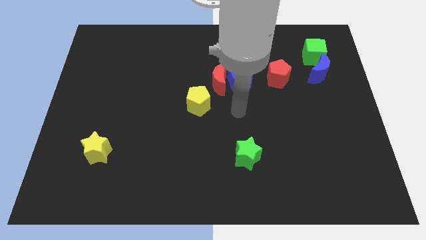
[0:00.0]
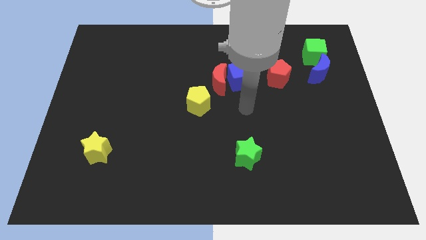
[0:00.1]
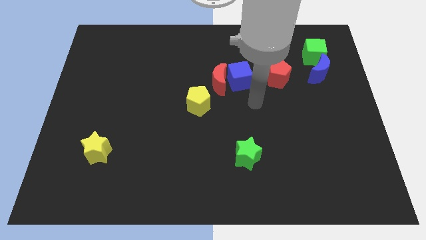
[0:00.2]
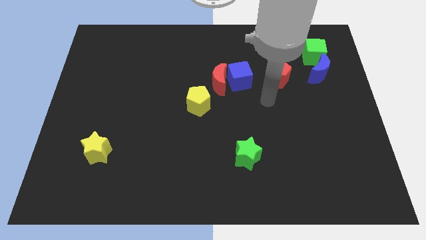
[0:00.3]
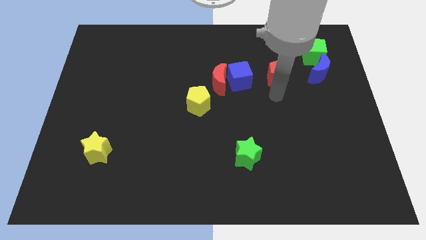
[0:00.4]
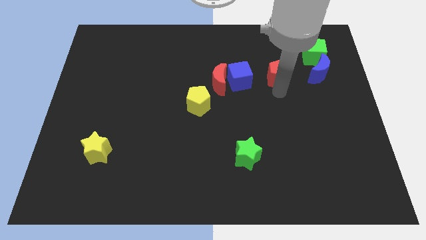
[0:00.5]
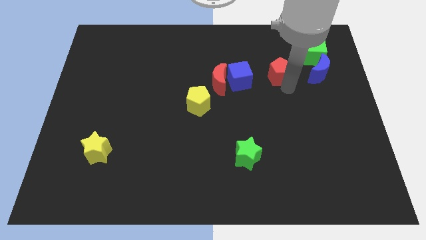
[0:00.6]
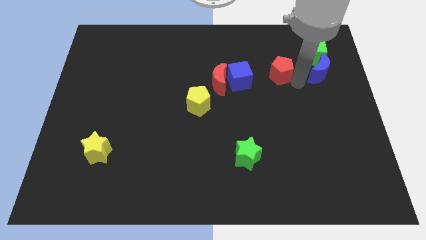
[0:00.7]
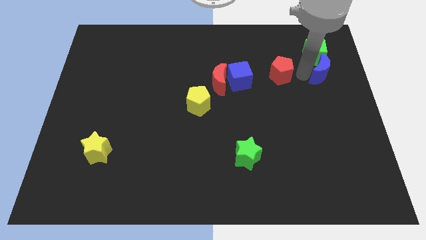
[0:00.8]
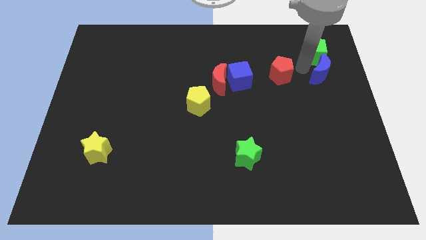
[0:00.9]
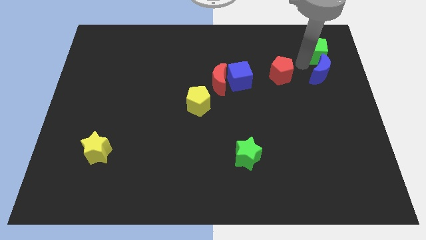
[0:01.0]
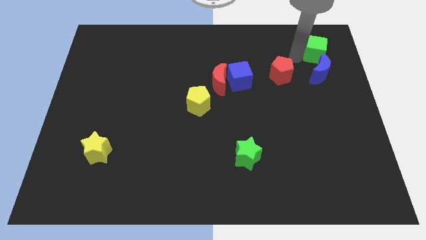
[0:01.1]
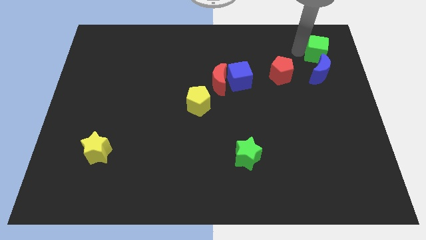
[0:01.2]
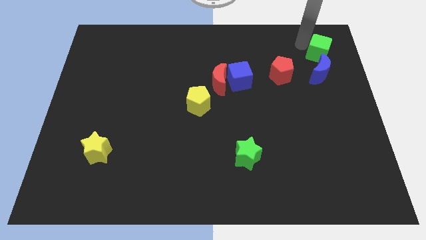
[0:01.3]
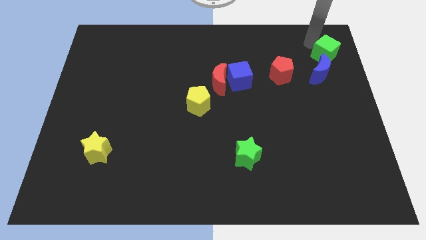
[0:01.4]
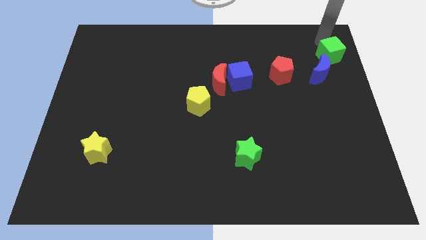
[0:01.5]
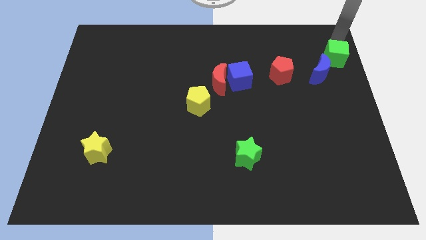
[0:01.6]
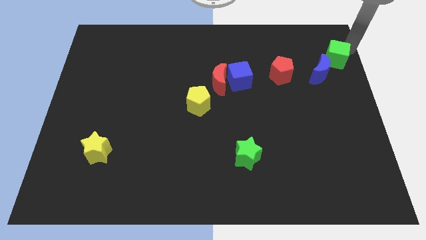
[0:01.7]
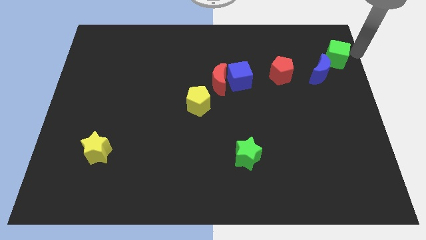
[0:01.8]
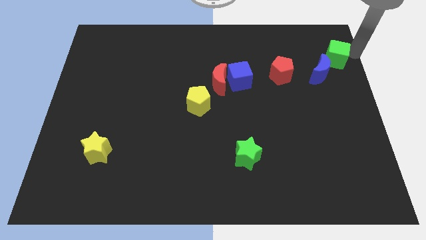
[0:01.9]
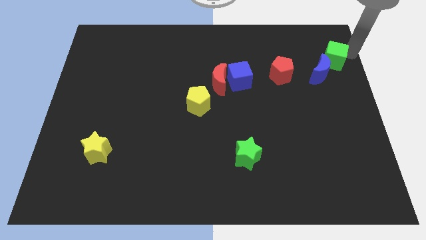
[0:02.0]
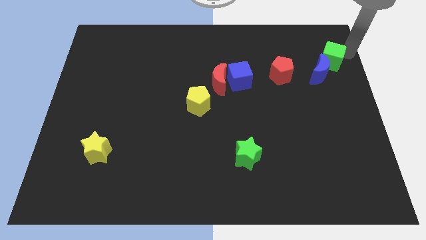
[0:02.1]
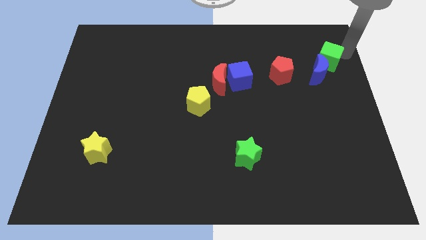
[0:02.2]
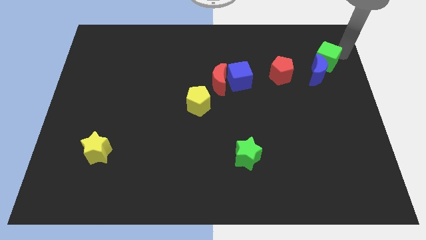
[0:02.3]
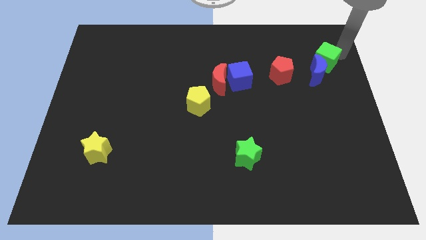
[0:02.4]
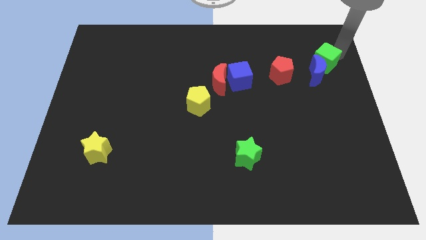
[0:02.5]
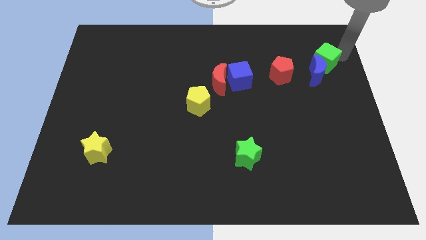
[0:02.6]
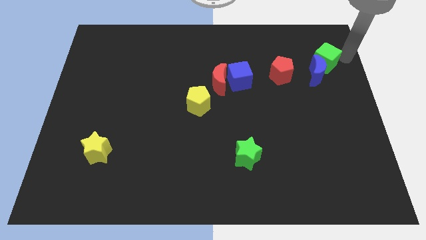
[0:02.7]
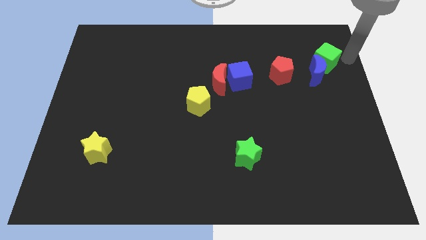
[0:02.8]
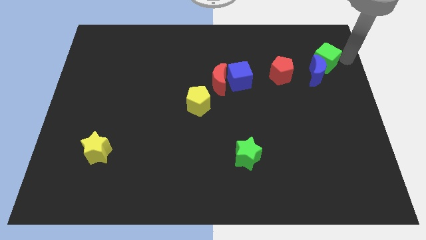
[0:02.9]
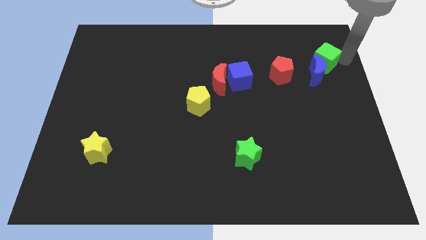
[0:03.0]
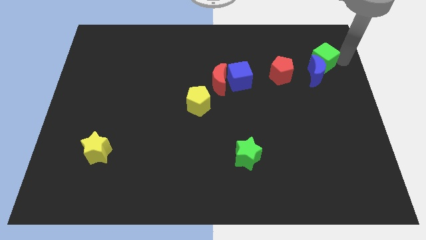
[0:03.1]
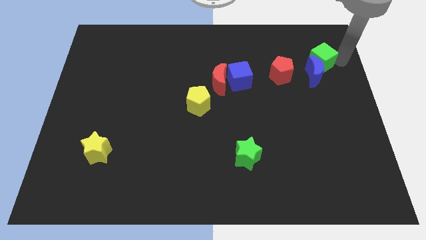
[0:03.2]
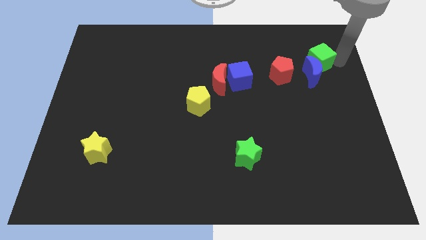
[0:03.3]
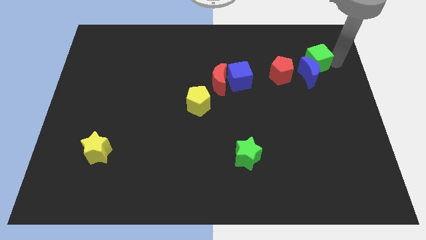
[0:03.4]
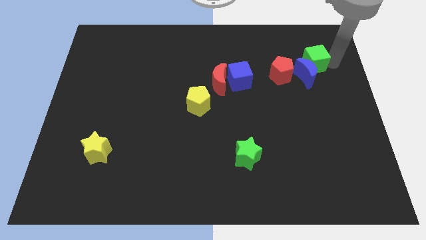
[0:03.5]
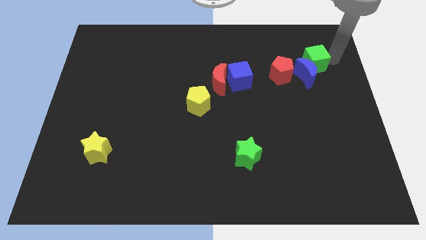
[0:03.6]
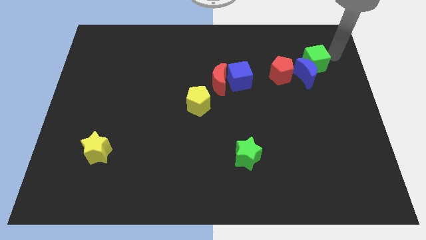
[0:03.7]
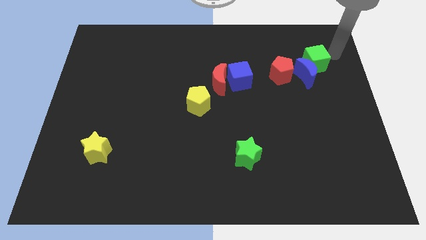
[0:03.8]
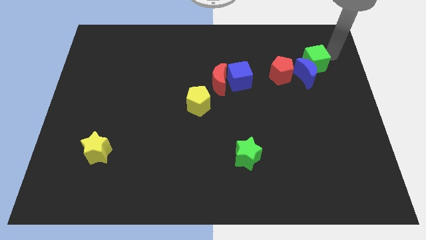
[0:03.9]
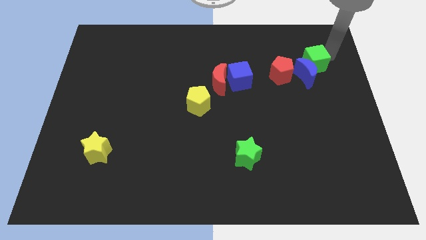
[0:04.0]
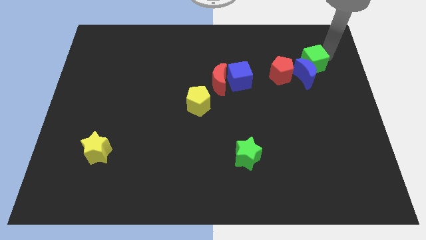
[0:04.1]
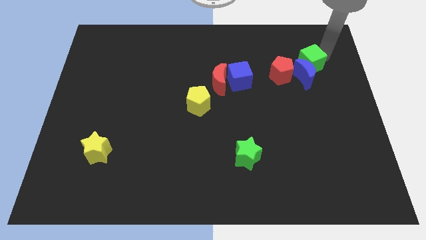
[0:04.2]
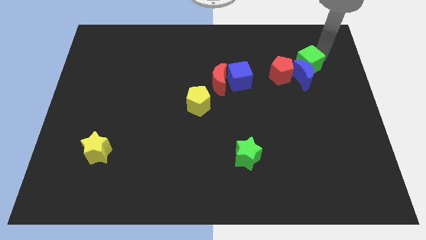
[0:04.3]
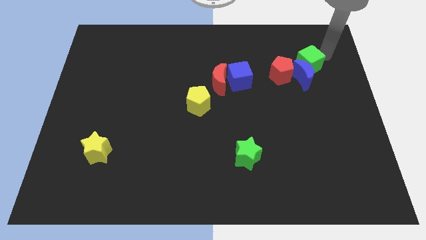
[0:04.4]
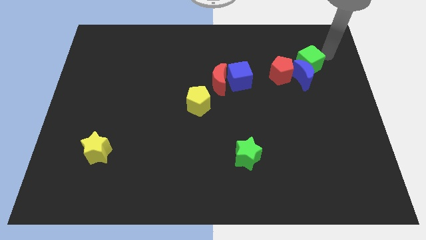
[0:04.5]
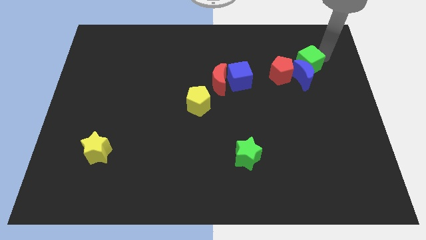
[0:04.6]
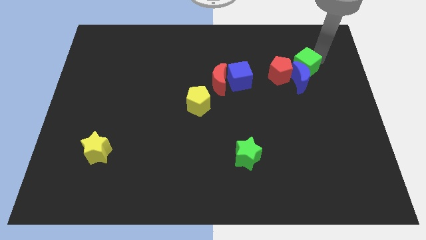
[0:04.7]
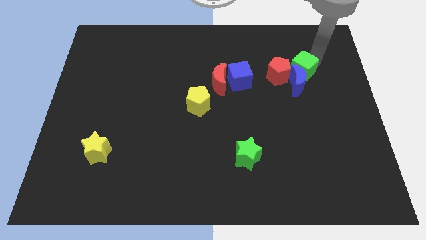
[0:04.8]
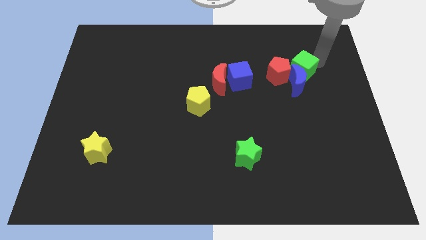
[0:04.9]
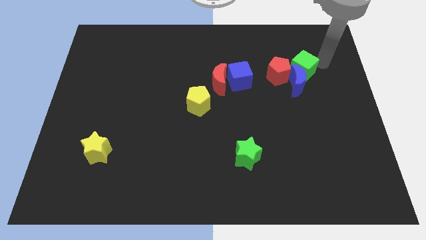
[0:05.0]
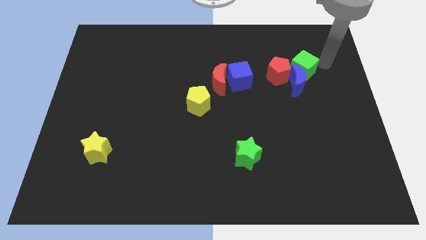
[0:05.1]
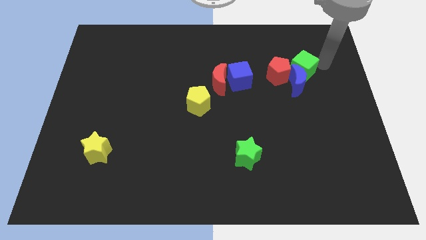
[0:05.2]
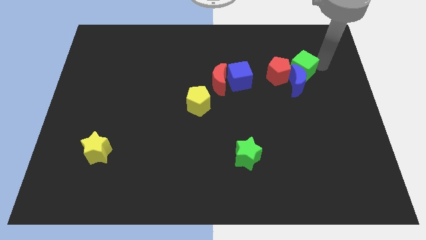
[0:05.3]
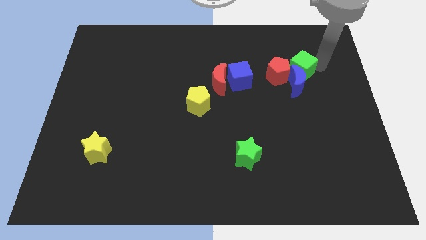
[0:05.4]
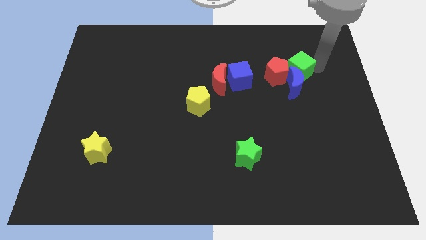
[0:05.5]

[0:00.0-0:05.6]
push the green cube to the red pentagon

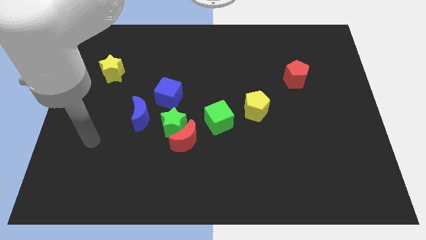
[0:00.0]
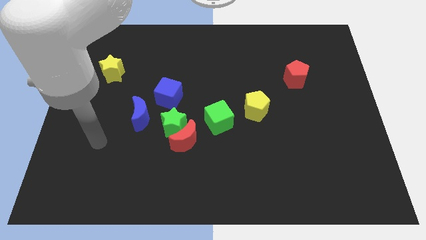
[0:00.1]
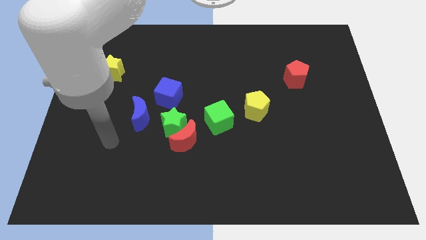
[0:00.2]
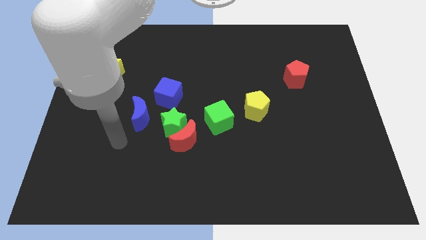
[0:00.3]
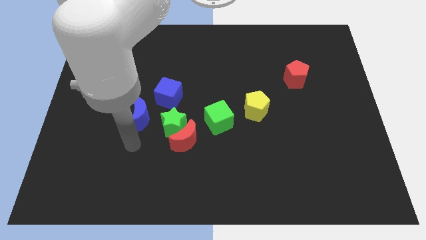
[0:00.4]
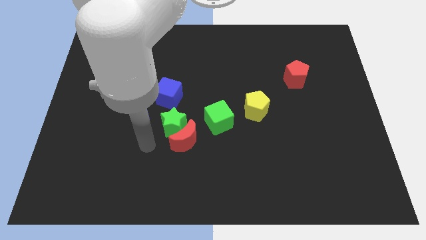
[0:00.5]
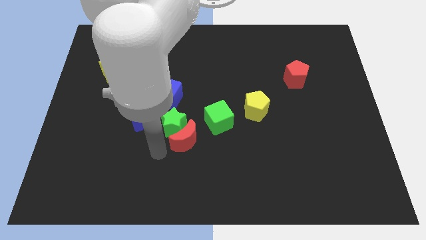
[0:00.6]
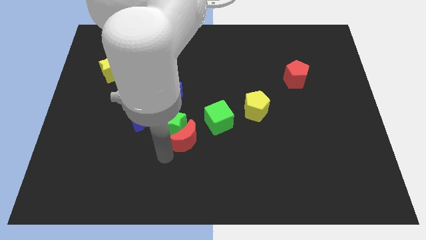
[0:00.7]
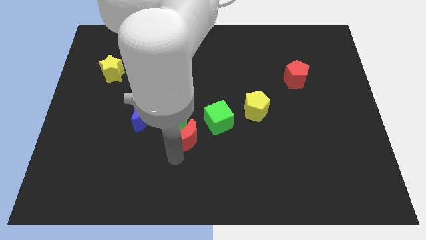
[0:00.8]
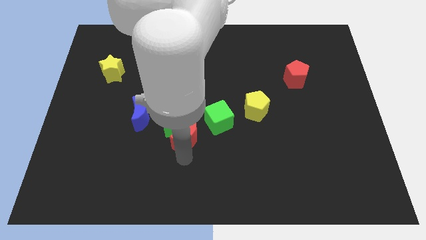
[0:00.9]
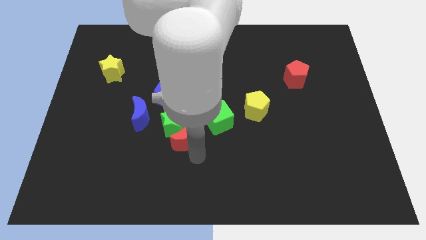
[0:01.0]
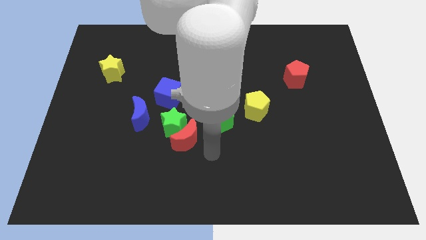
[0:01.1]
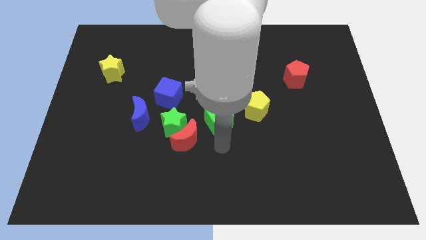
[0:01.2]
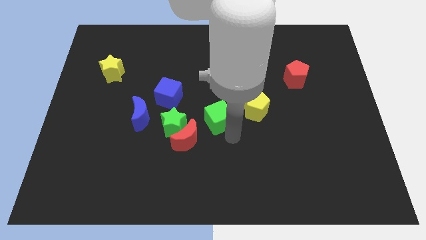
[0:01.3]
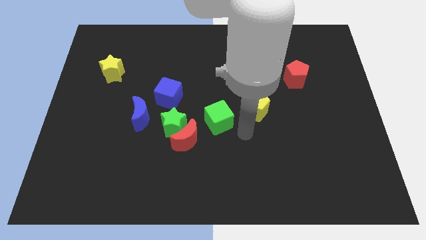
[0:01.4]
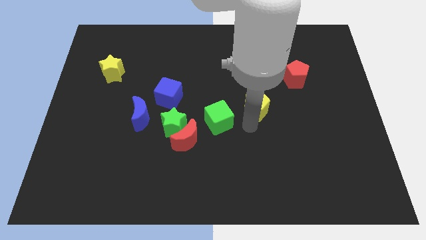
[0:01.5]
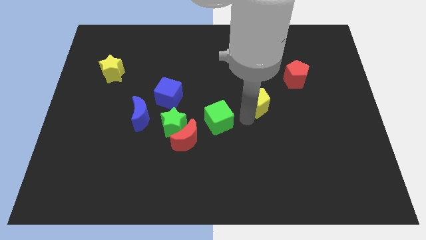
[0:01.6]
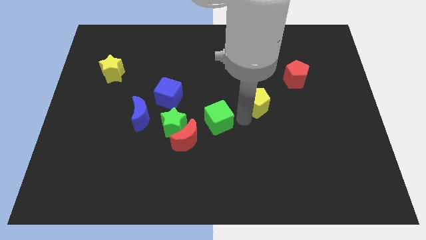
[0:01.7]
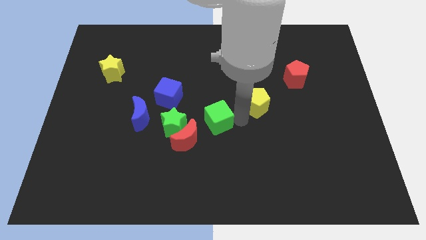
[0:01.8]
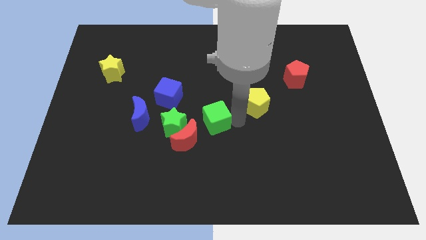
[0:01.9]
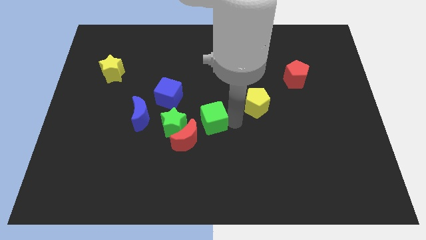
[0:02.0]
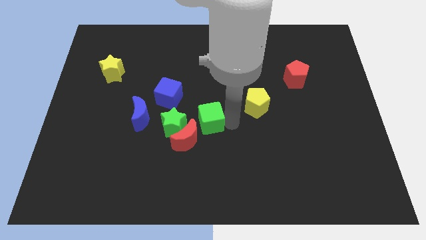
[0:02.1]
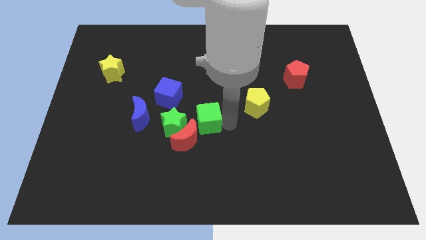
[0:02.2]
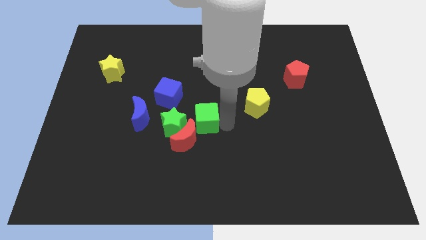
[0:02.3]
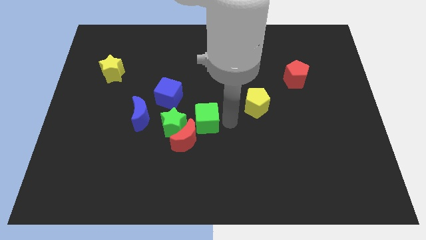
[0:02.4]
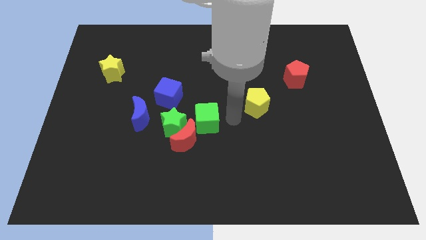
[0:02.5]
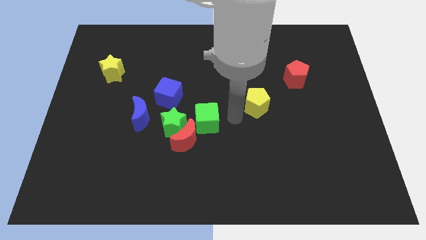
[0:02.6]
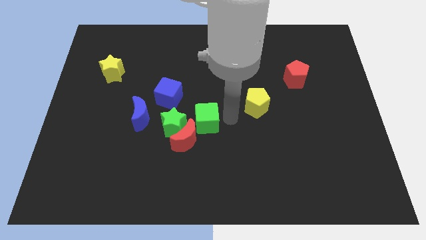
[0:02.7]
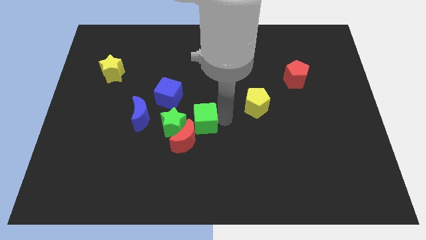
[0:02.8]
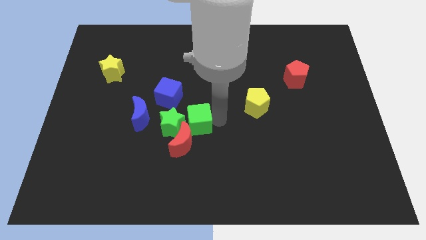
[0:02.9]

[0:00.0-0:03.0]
move the green cube next to the green star
